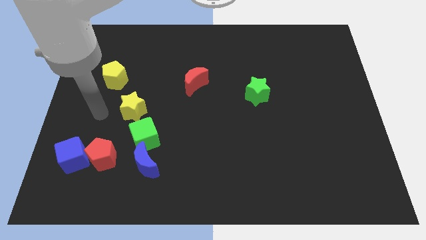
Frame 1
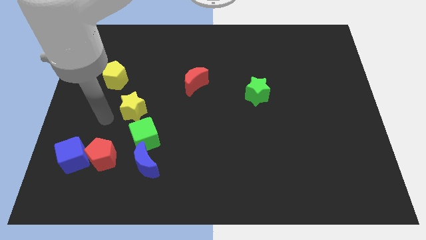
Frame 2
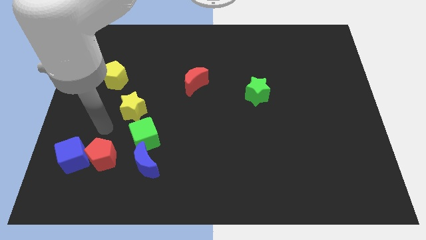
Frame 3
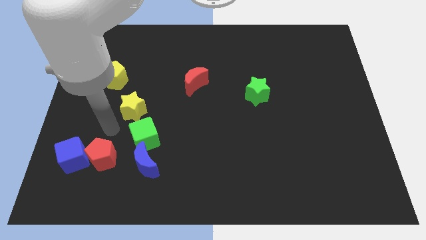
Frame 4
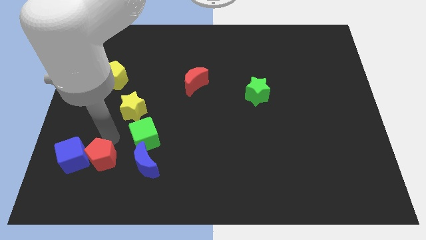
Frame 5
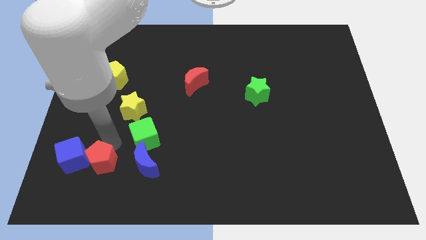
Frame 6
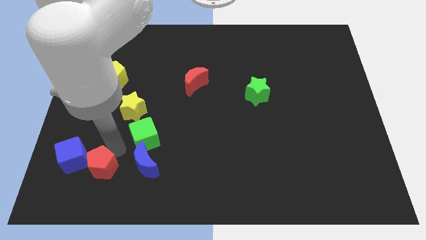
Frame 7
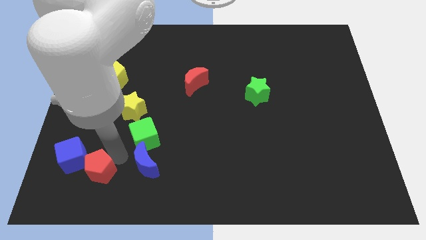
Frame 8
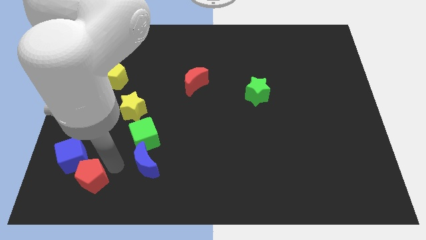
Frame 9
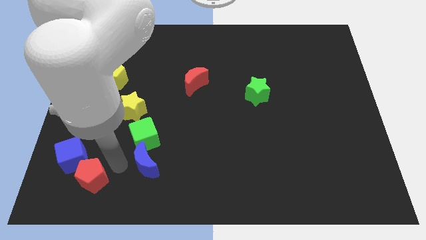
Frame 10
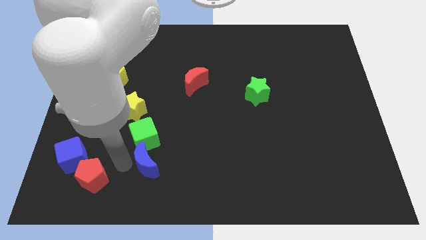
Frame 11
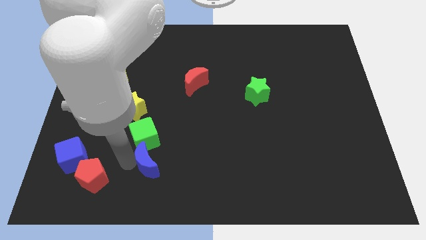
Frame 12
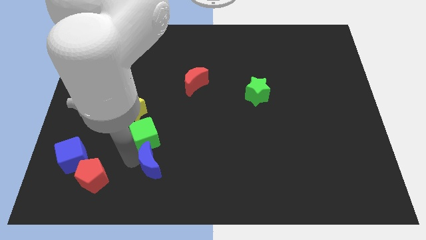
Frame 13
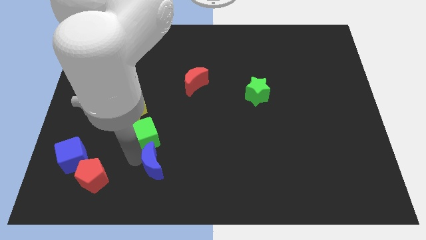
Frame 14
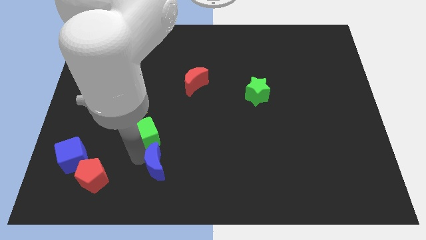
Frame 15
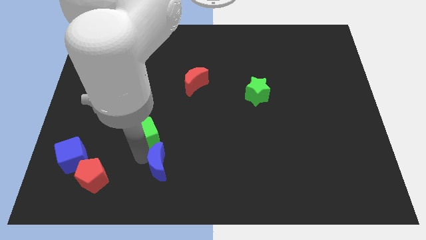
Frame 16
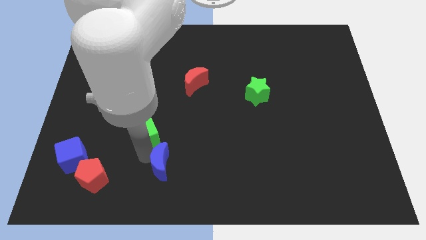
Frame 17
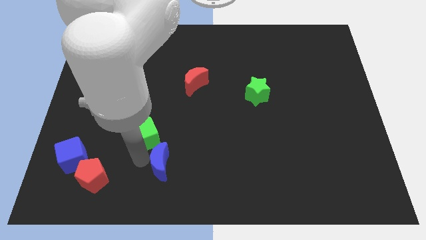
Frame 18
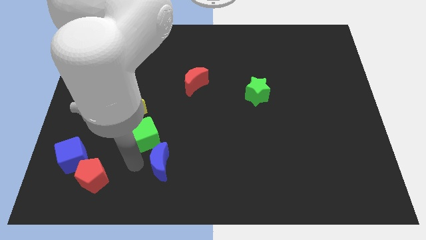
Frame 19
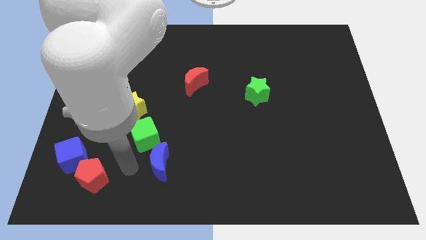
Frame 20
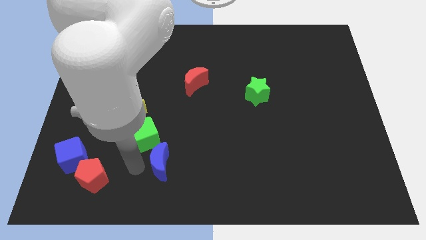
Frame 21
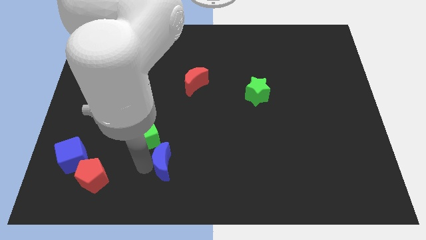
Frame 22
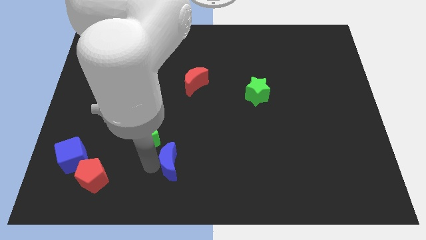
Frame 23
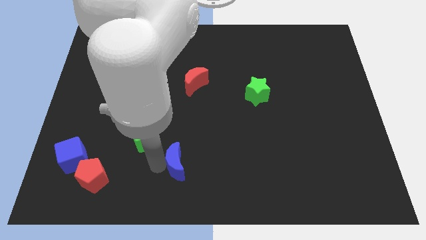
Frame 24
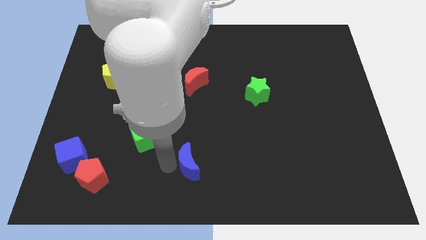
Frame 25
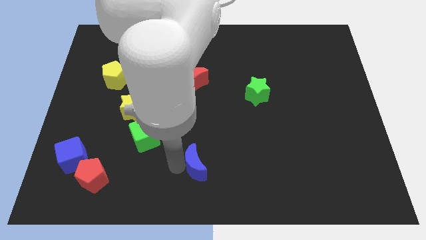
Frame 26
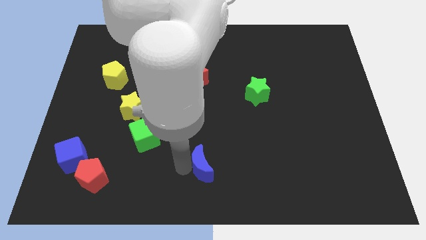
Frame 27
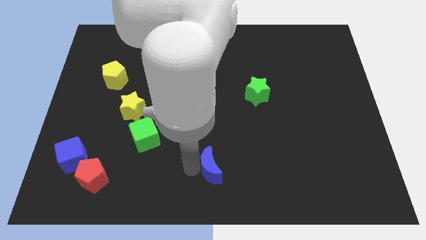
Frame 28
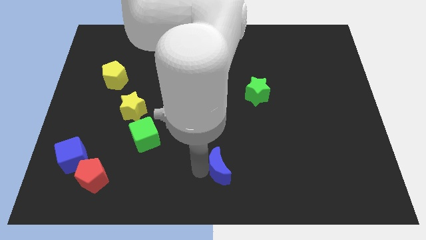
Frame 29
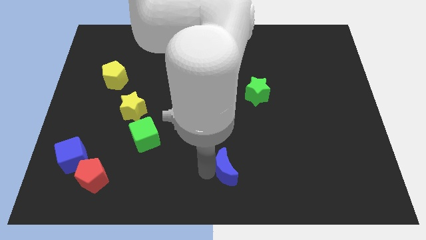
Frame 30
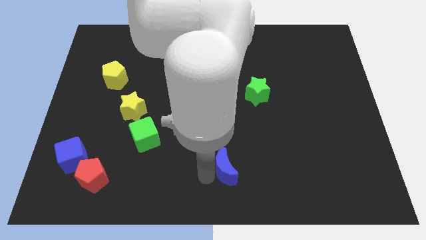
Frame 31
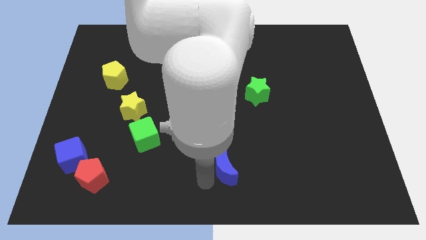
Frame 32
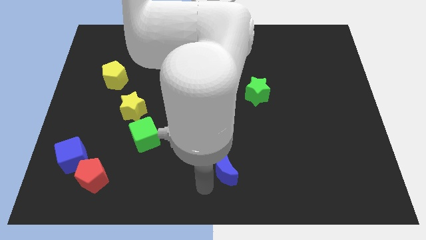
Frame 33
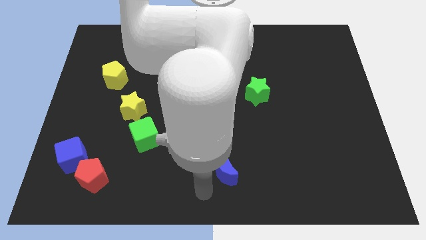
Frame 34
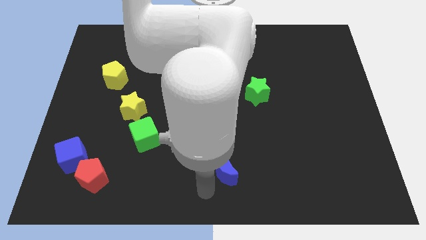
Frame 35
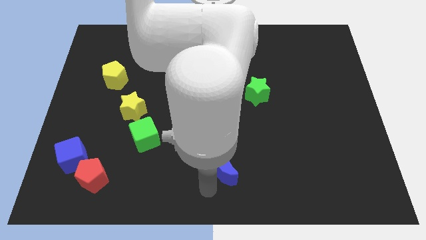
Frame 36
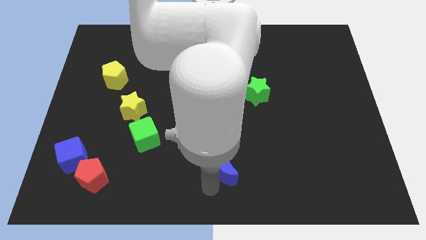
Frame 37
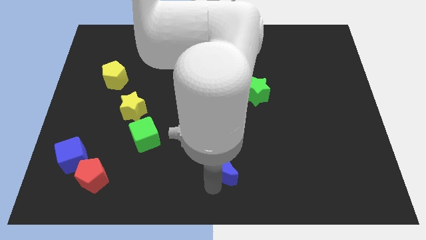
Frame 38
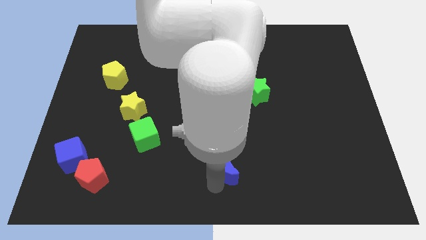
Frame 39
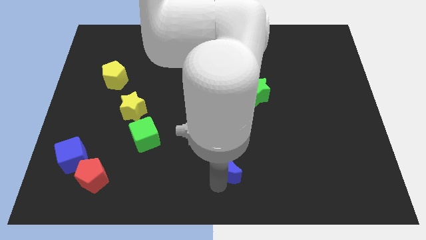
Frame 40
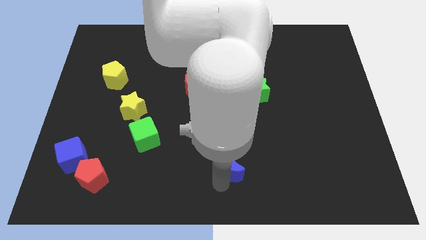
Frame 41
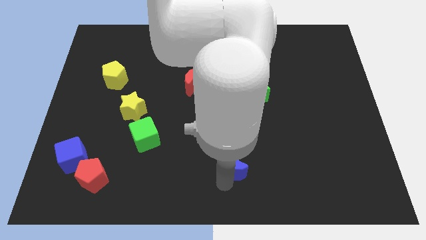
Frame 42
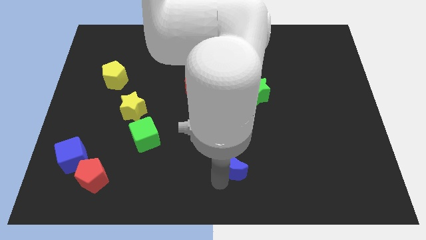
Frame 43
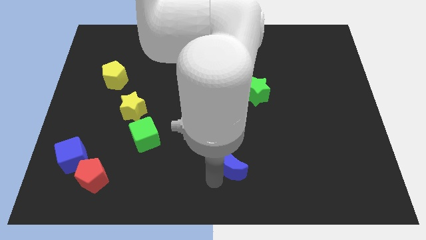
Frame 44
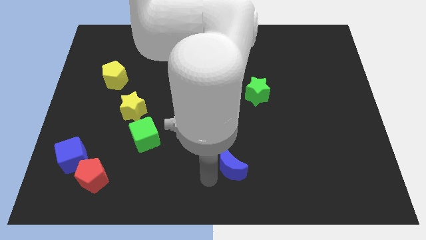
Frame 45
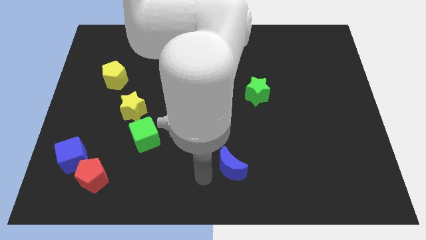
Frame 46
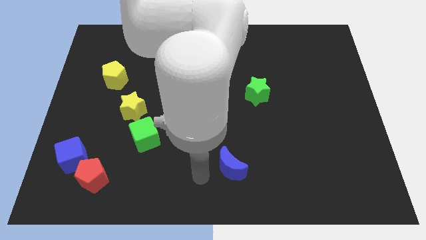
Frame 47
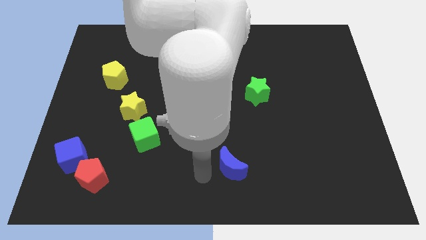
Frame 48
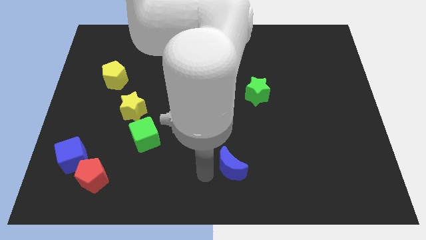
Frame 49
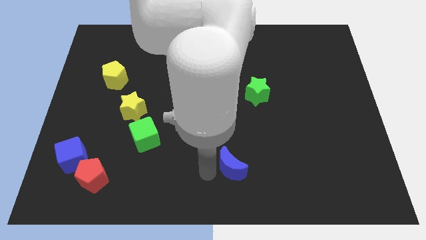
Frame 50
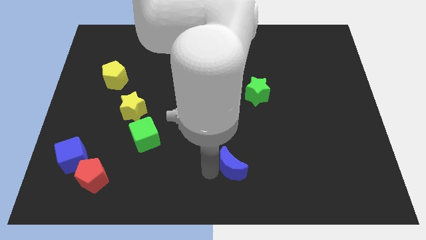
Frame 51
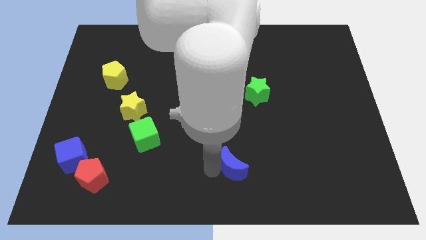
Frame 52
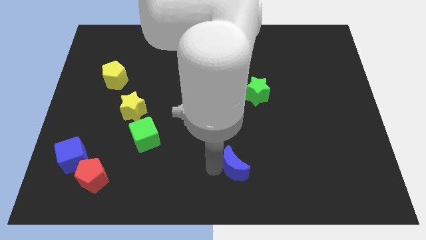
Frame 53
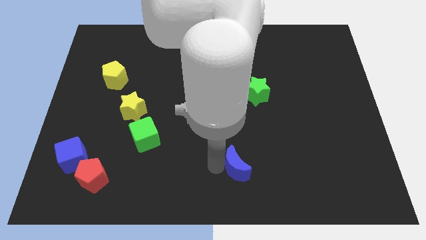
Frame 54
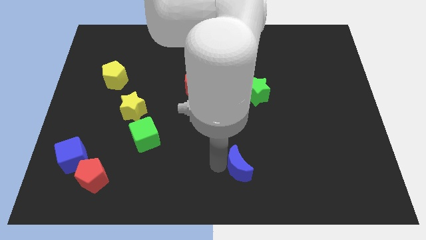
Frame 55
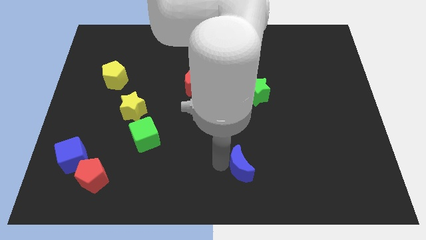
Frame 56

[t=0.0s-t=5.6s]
push the blue moon to the right

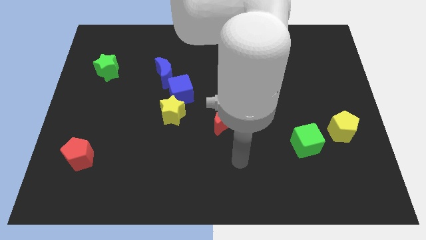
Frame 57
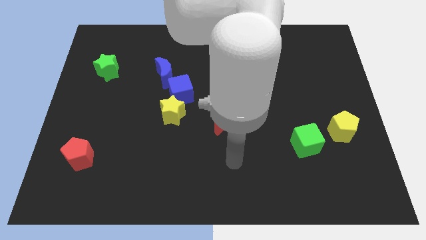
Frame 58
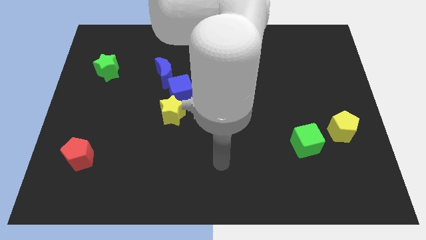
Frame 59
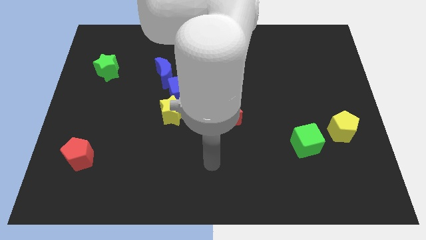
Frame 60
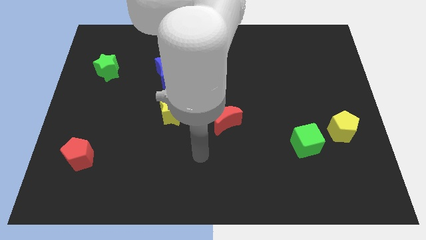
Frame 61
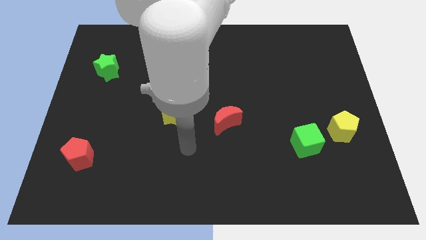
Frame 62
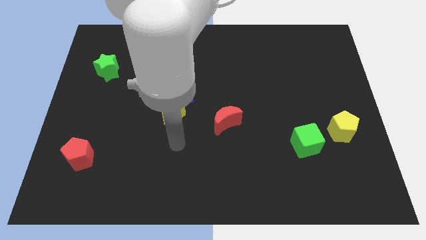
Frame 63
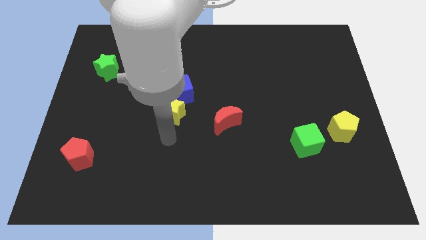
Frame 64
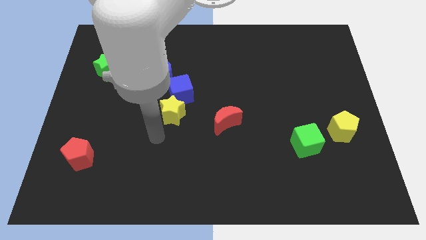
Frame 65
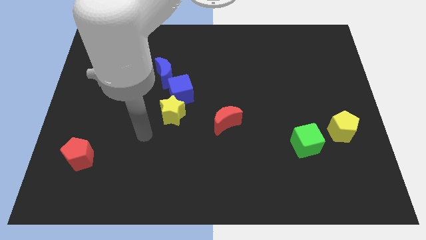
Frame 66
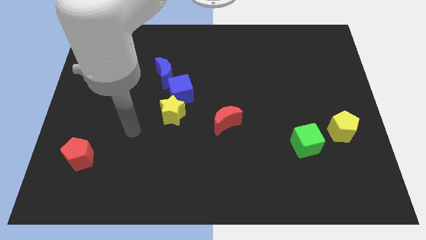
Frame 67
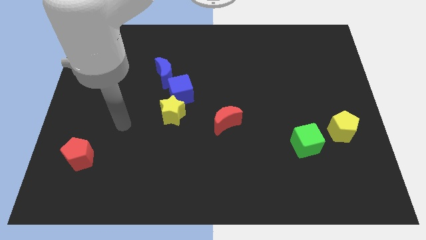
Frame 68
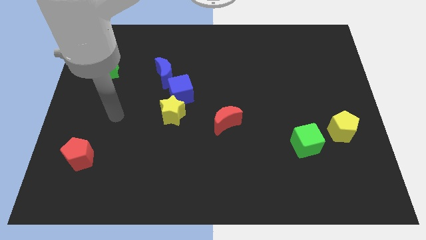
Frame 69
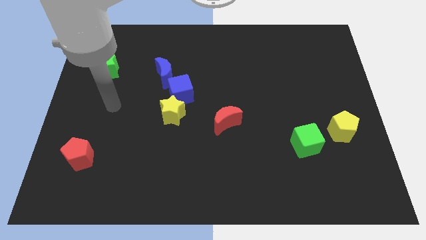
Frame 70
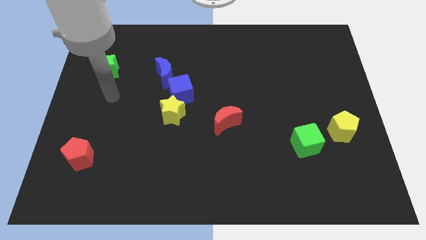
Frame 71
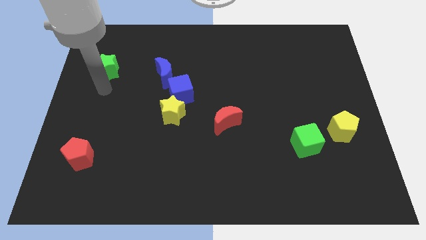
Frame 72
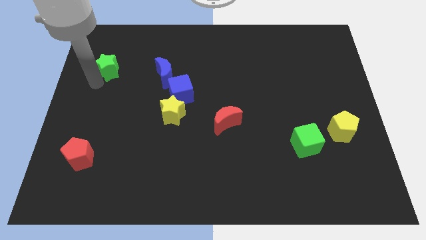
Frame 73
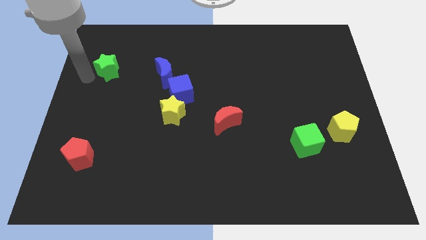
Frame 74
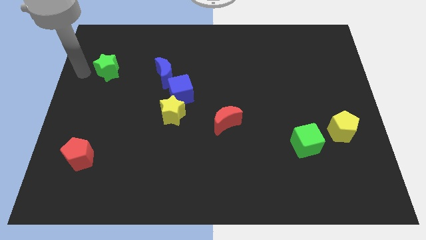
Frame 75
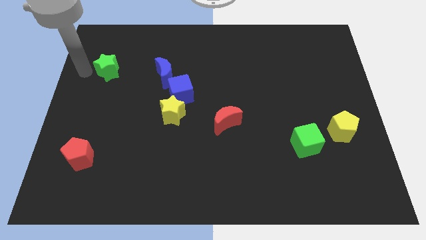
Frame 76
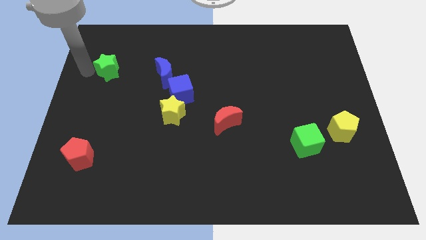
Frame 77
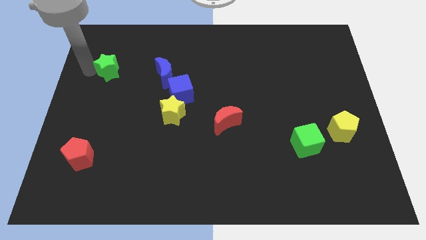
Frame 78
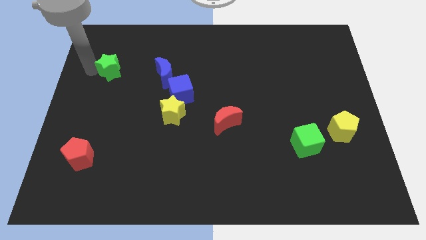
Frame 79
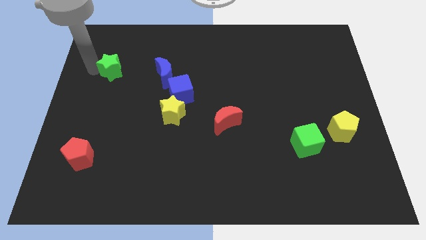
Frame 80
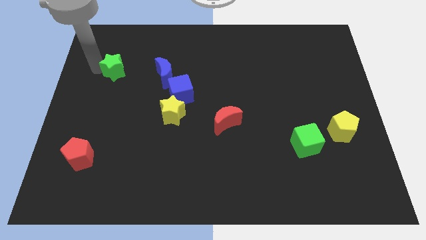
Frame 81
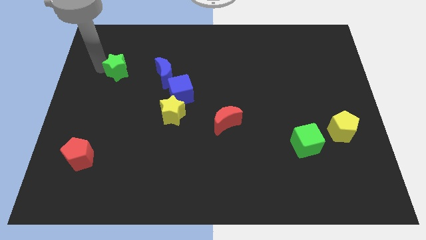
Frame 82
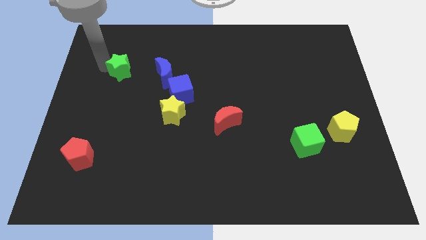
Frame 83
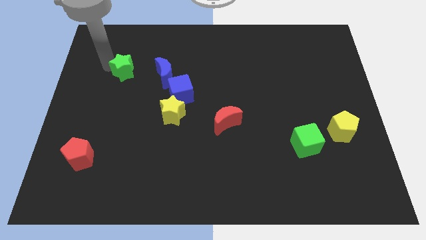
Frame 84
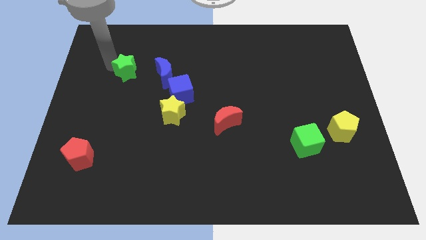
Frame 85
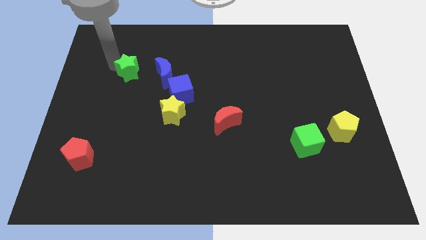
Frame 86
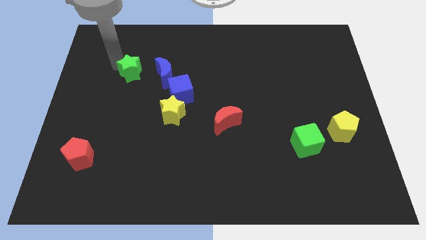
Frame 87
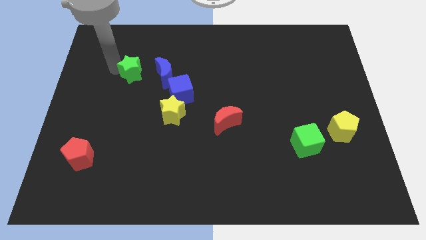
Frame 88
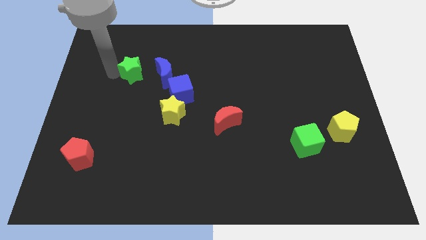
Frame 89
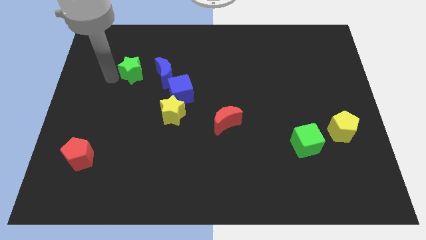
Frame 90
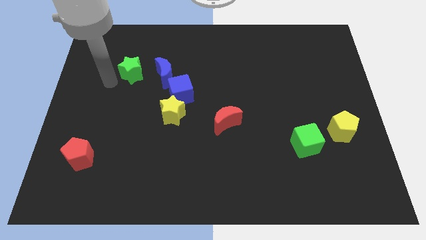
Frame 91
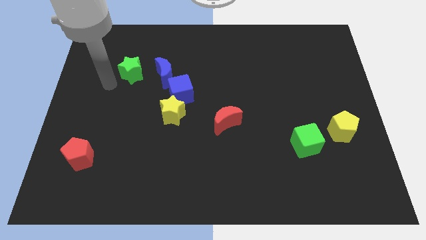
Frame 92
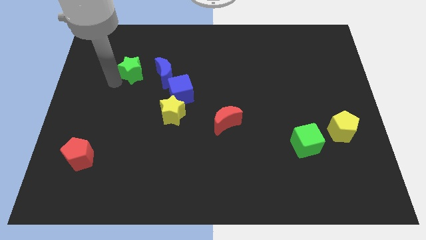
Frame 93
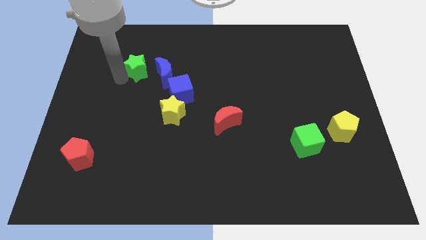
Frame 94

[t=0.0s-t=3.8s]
push the green star a little bit right
